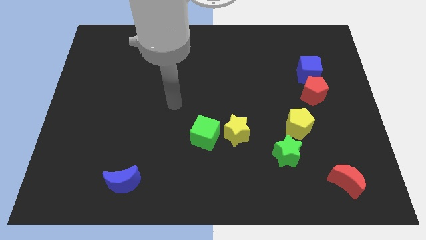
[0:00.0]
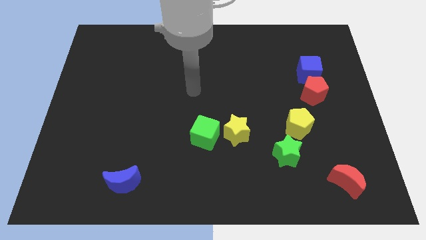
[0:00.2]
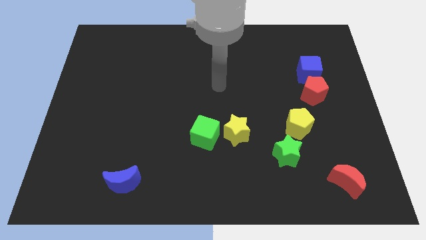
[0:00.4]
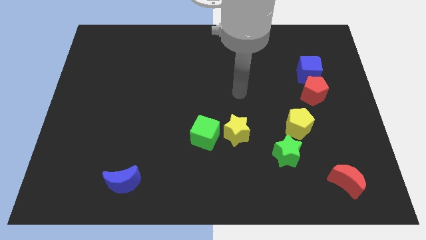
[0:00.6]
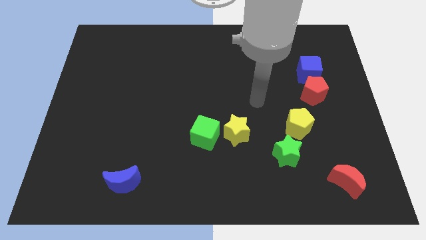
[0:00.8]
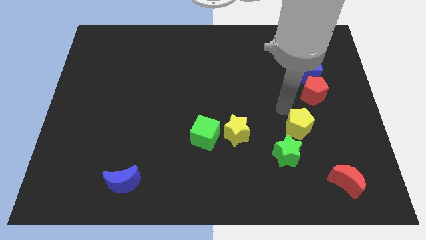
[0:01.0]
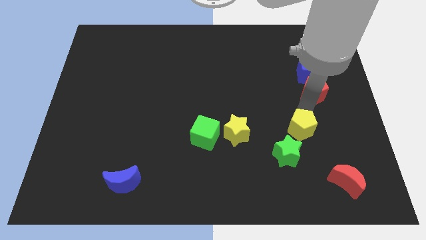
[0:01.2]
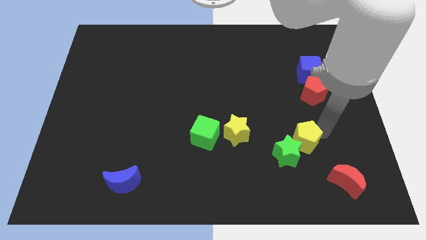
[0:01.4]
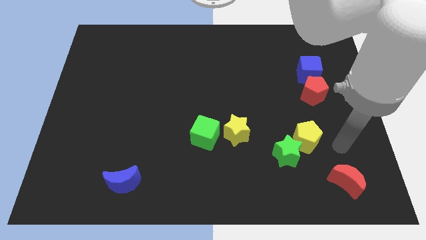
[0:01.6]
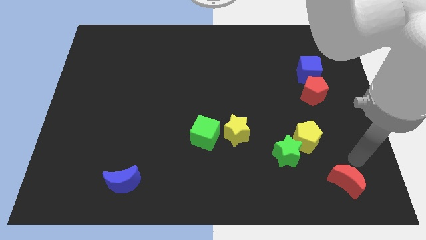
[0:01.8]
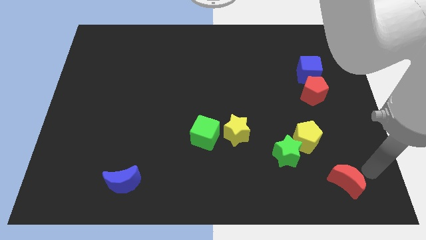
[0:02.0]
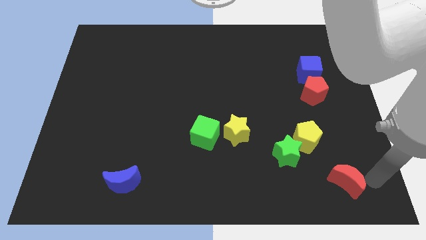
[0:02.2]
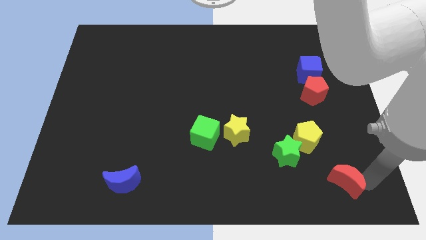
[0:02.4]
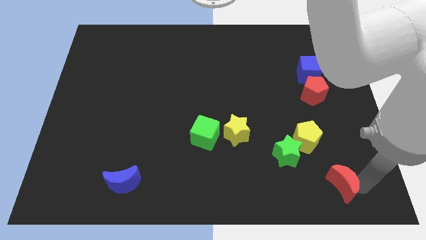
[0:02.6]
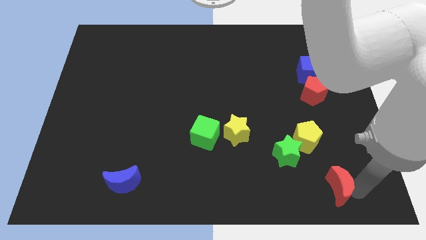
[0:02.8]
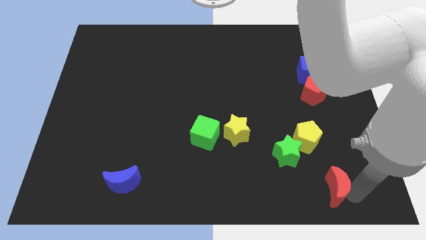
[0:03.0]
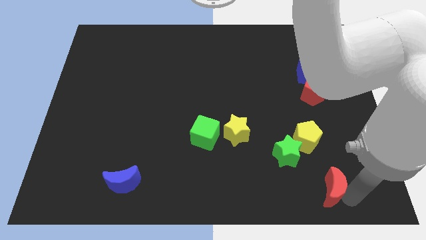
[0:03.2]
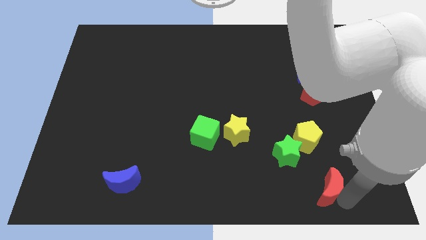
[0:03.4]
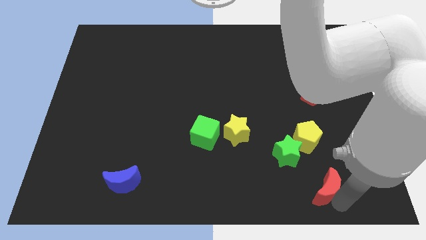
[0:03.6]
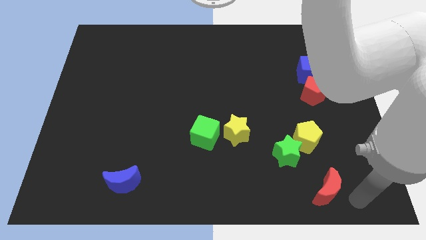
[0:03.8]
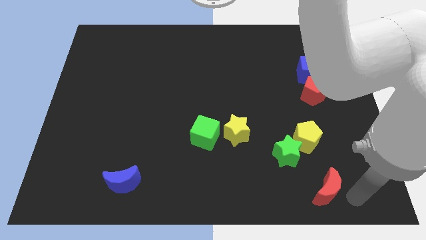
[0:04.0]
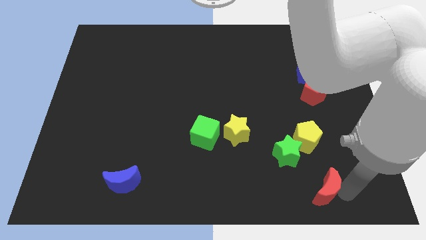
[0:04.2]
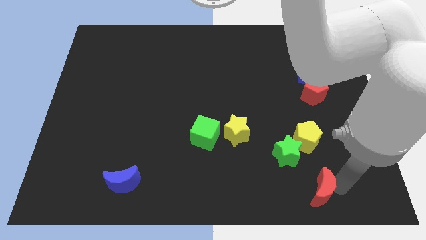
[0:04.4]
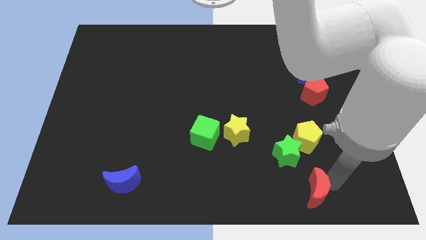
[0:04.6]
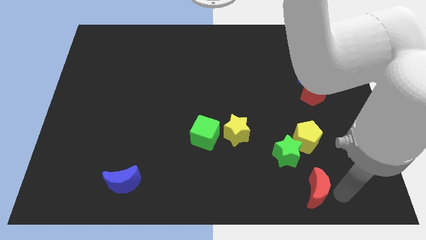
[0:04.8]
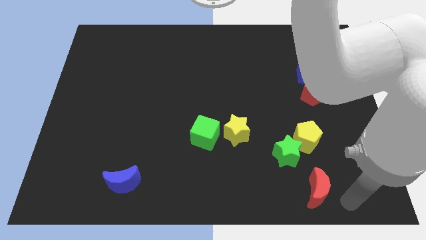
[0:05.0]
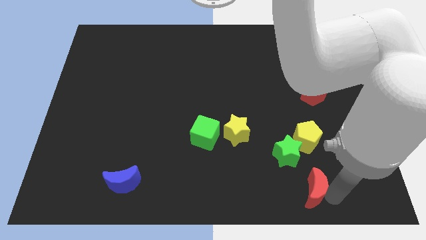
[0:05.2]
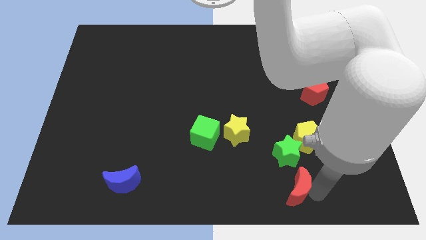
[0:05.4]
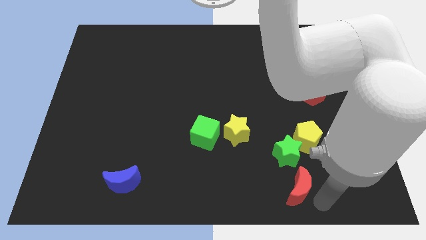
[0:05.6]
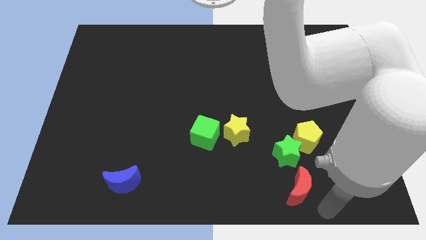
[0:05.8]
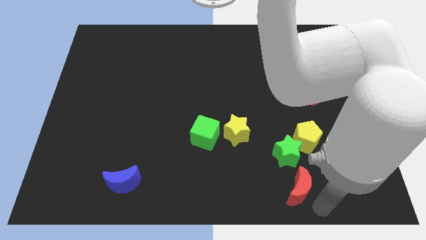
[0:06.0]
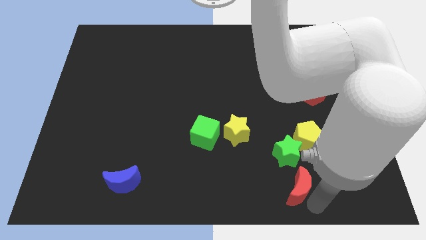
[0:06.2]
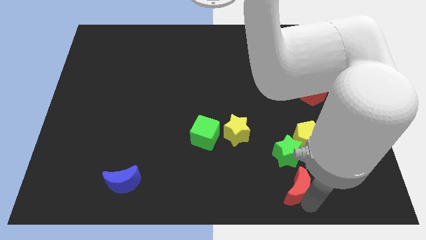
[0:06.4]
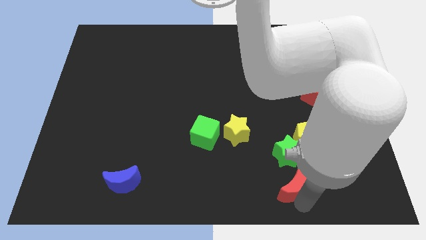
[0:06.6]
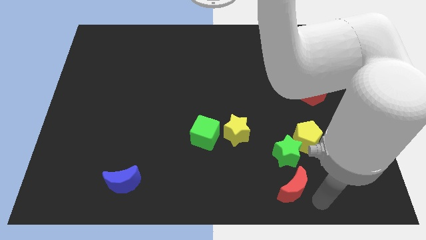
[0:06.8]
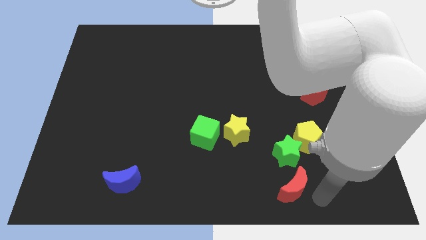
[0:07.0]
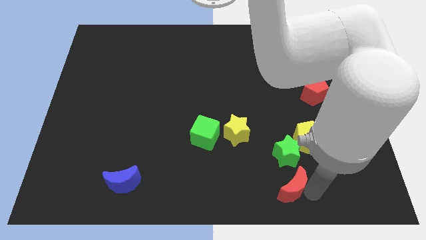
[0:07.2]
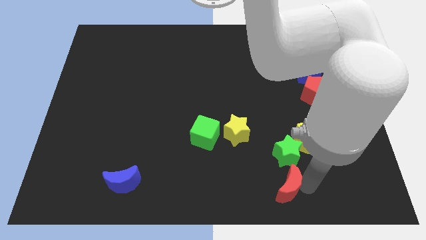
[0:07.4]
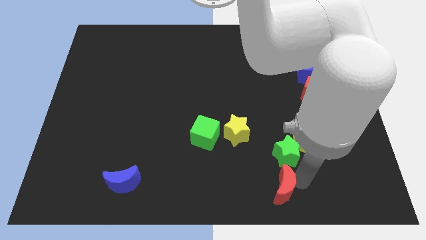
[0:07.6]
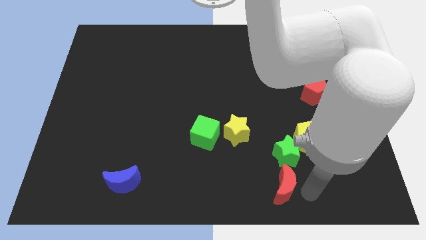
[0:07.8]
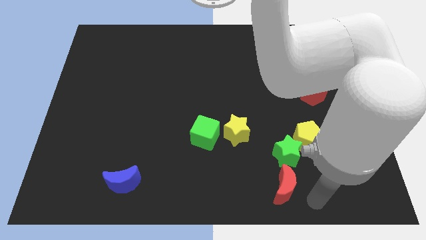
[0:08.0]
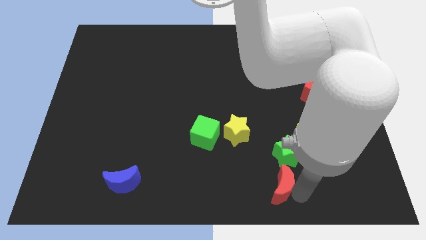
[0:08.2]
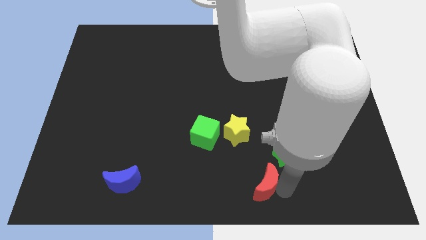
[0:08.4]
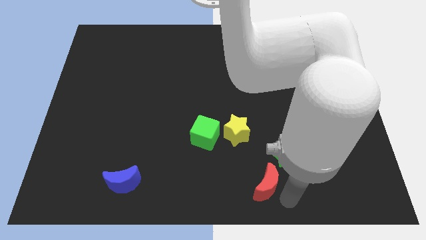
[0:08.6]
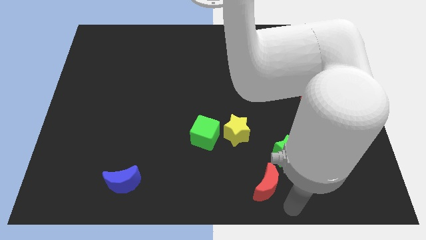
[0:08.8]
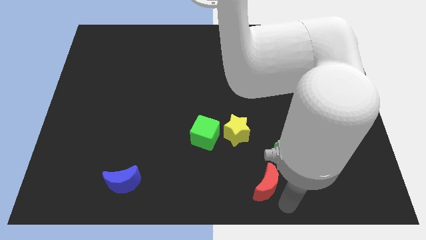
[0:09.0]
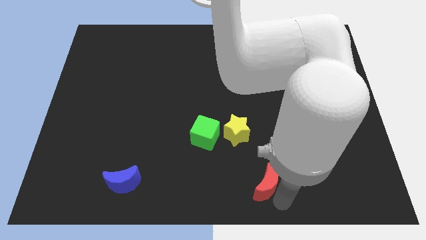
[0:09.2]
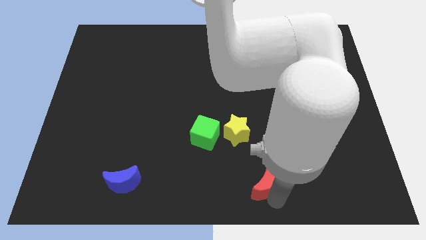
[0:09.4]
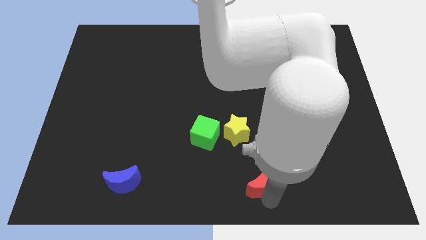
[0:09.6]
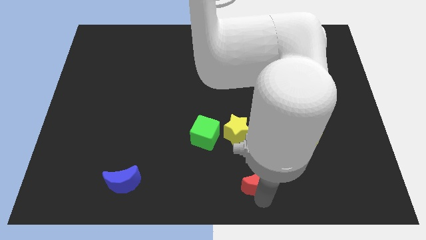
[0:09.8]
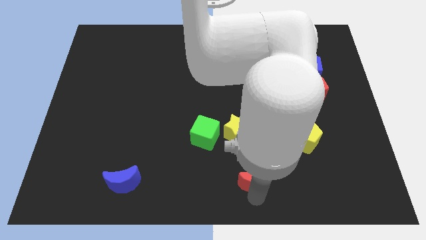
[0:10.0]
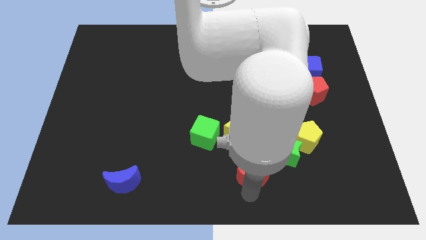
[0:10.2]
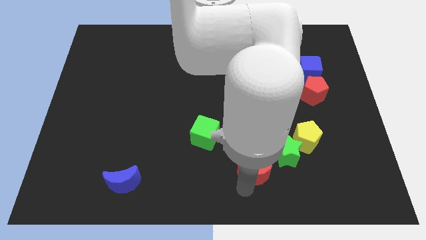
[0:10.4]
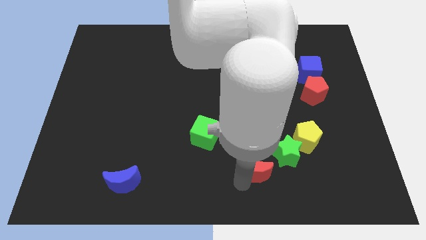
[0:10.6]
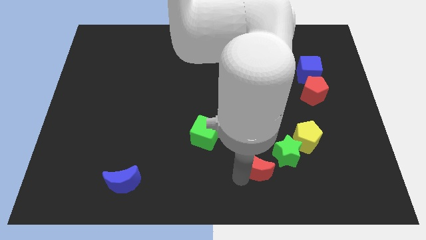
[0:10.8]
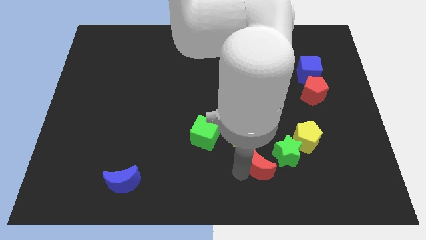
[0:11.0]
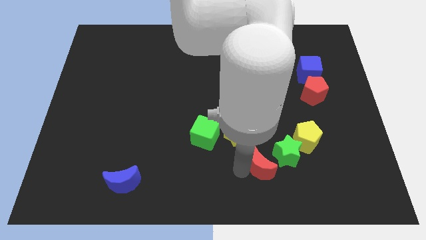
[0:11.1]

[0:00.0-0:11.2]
slide the red moon to the bottom left of the yellow pentagon
